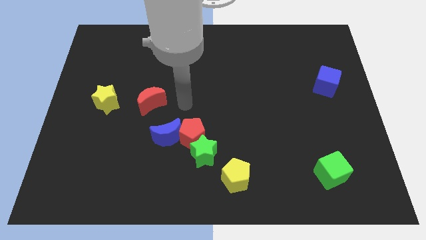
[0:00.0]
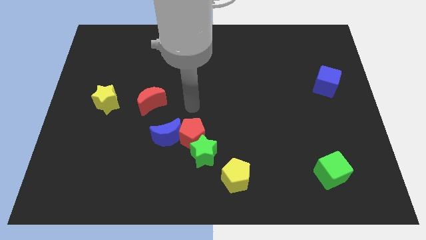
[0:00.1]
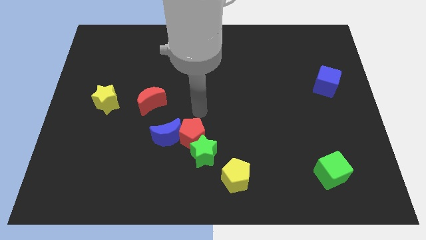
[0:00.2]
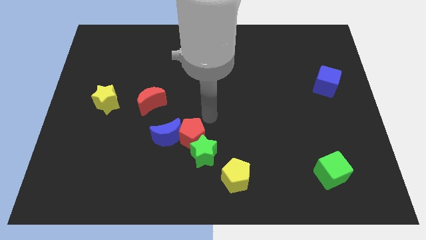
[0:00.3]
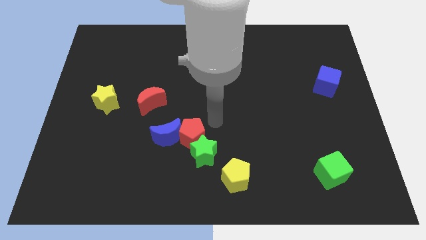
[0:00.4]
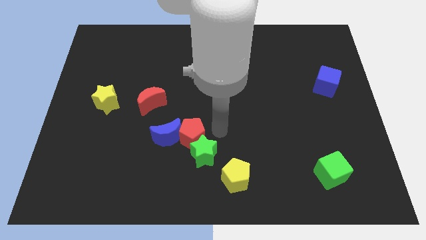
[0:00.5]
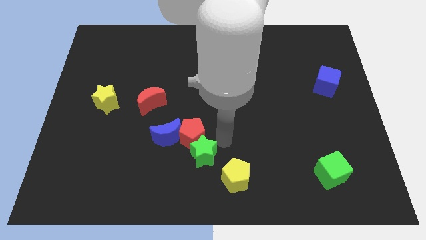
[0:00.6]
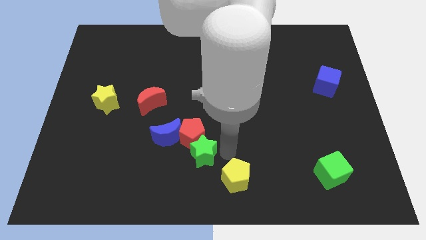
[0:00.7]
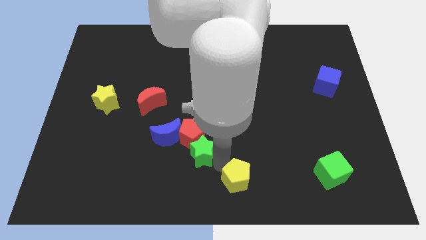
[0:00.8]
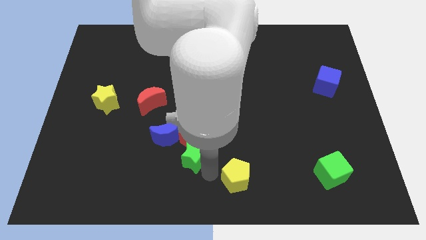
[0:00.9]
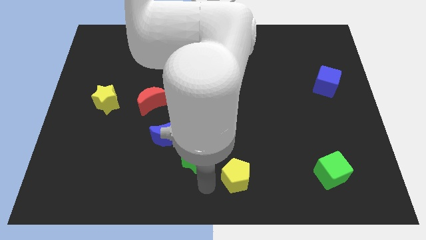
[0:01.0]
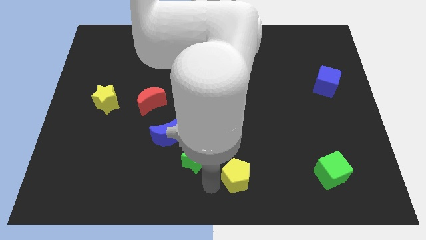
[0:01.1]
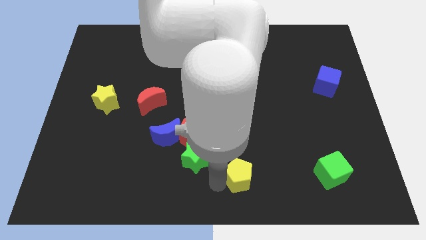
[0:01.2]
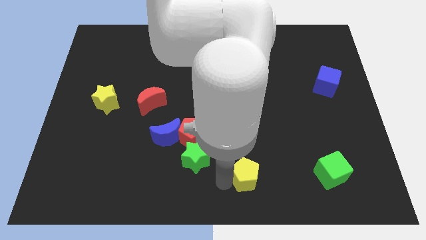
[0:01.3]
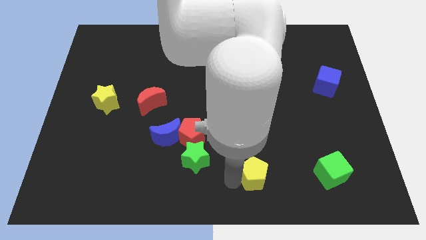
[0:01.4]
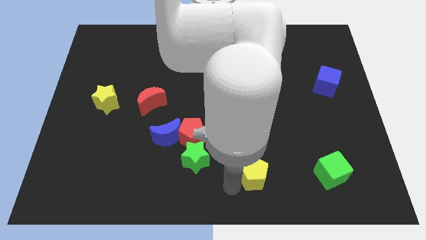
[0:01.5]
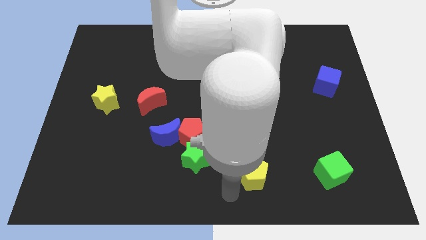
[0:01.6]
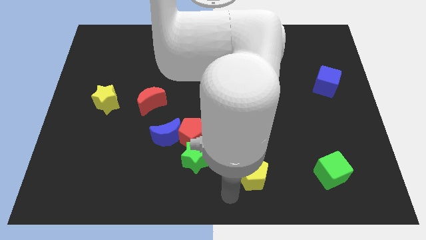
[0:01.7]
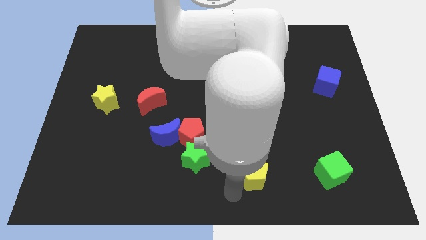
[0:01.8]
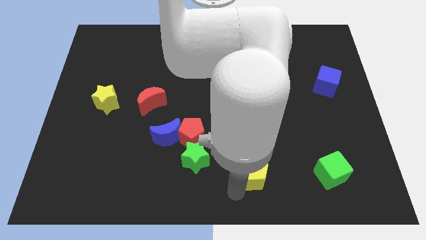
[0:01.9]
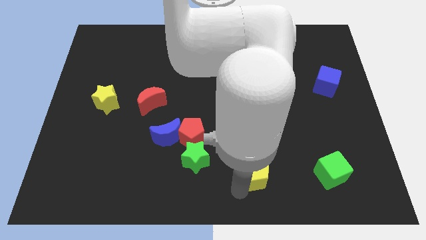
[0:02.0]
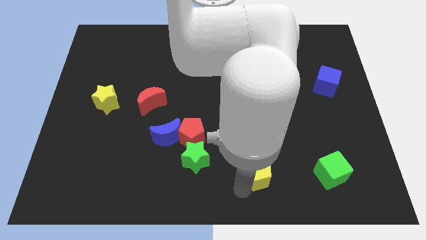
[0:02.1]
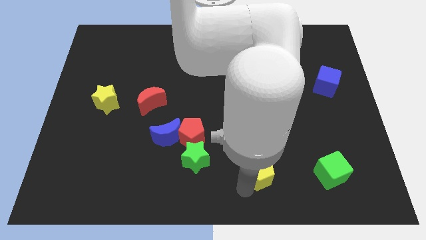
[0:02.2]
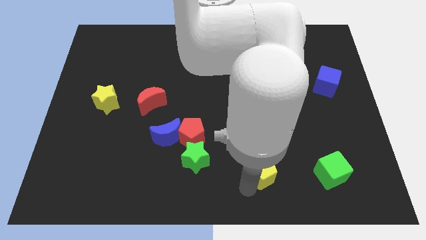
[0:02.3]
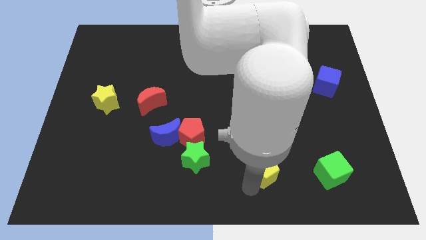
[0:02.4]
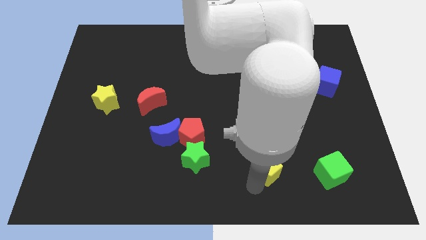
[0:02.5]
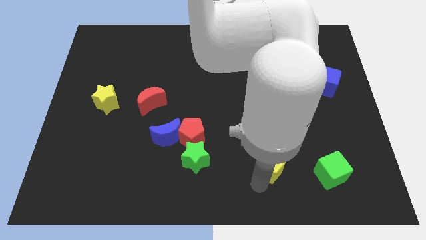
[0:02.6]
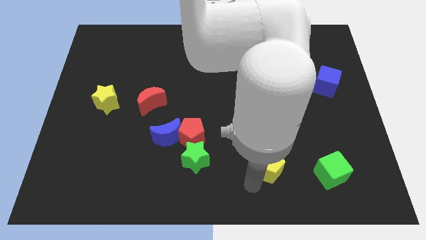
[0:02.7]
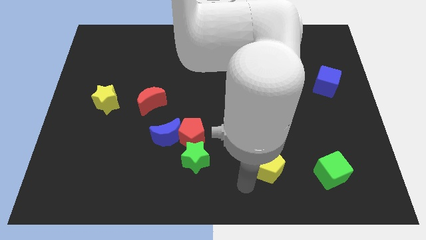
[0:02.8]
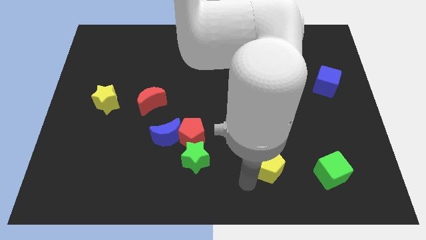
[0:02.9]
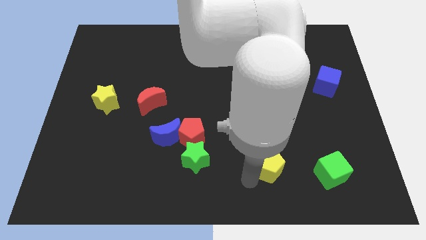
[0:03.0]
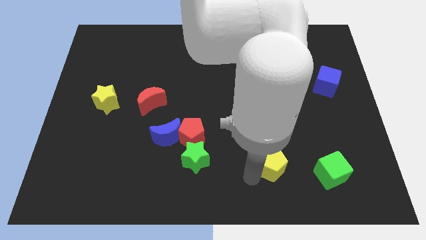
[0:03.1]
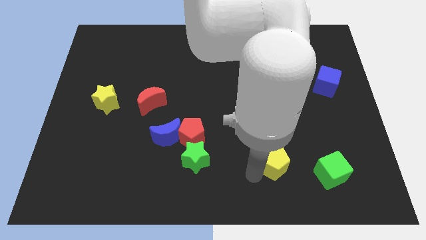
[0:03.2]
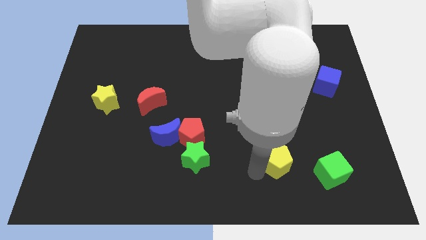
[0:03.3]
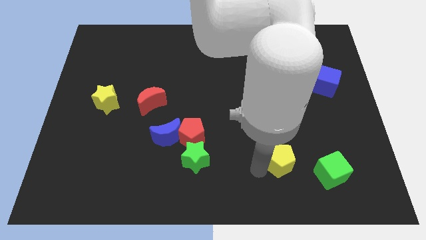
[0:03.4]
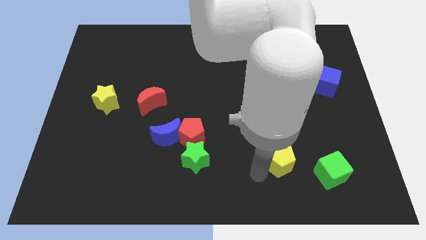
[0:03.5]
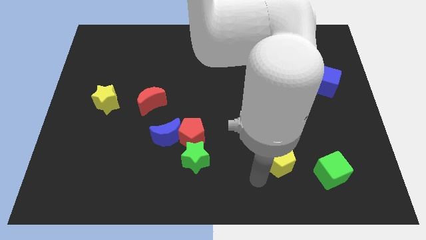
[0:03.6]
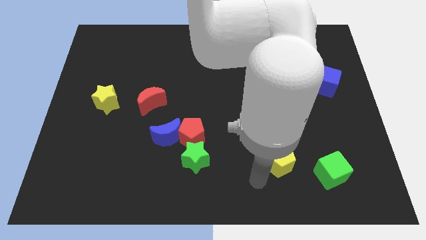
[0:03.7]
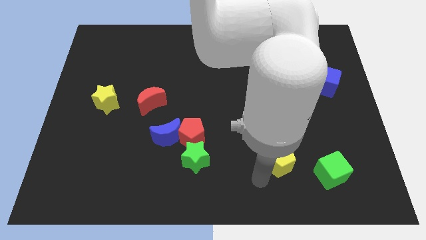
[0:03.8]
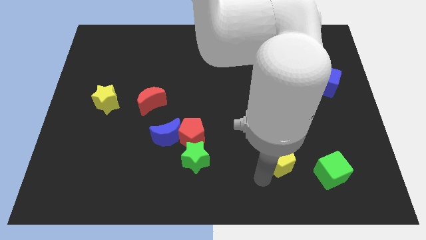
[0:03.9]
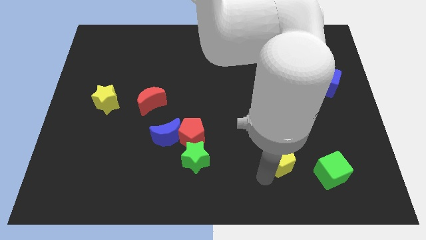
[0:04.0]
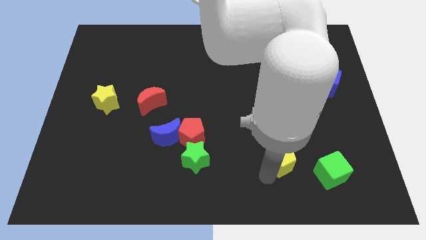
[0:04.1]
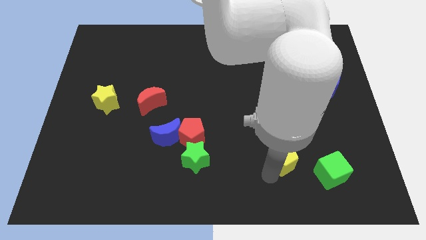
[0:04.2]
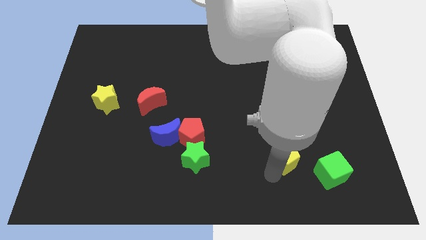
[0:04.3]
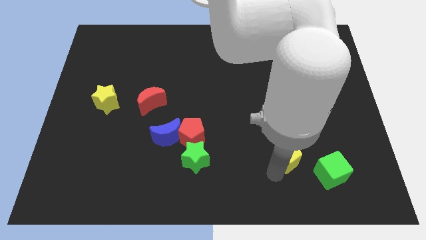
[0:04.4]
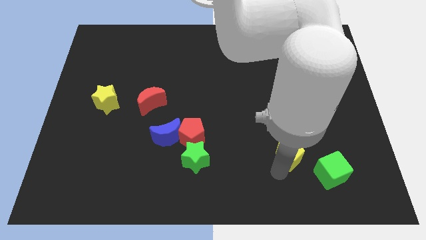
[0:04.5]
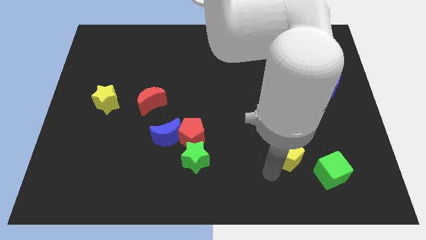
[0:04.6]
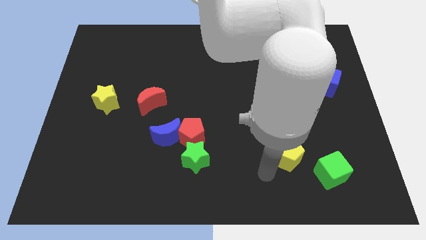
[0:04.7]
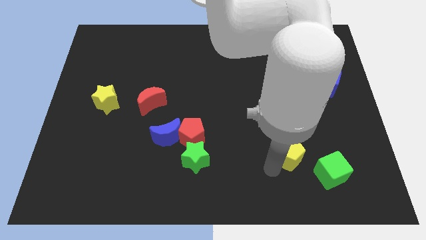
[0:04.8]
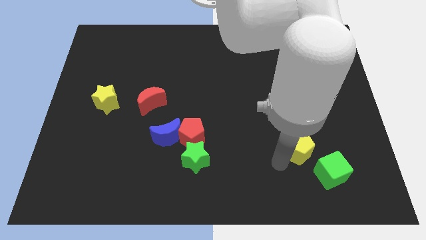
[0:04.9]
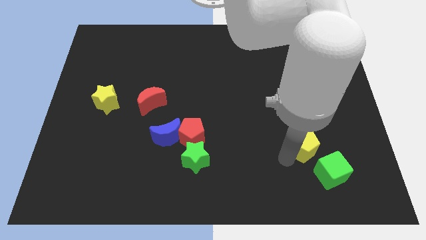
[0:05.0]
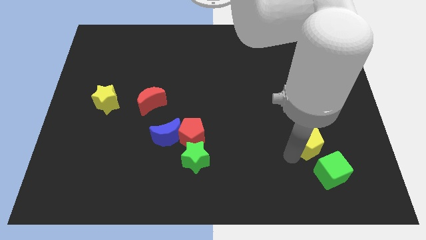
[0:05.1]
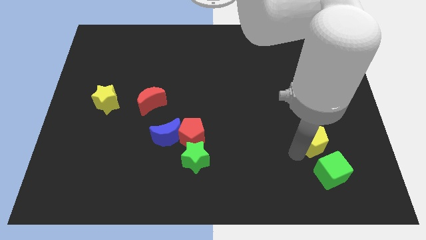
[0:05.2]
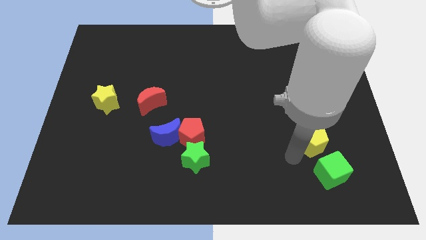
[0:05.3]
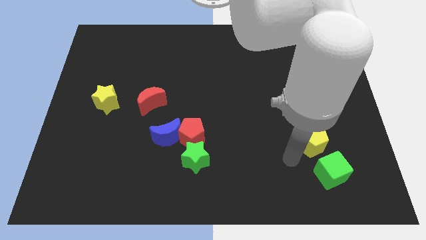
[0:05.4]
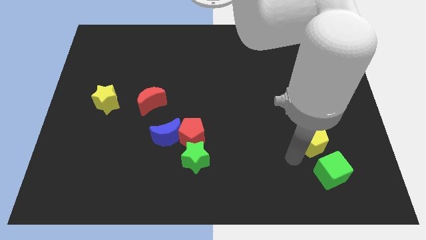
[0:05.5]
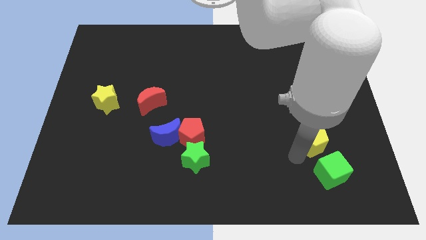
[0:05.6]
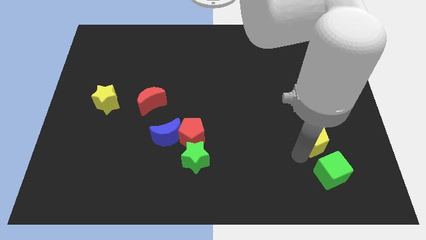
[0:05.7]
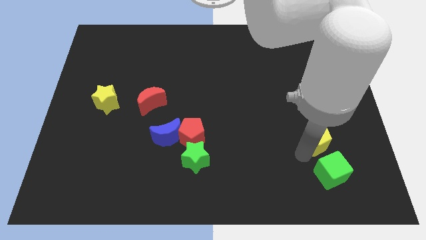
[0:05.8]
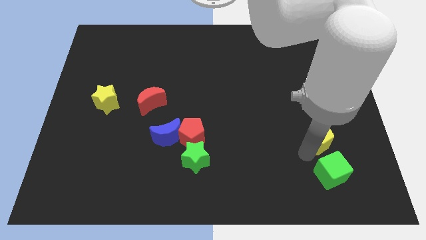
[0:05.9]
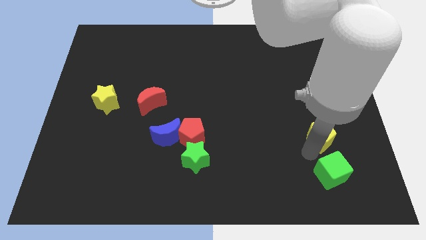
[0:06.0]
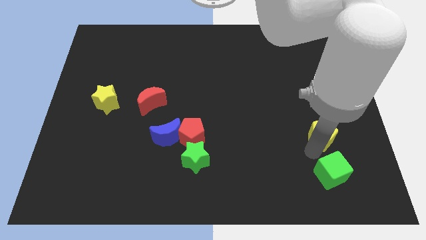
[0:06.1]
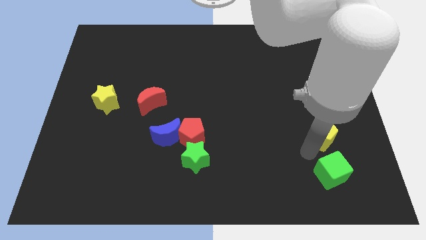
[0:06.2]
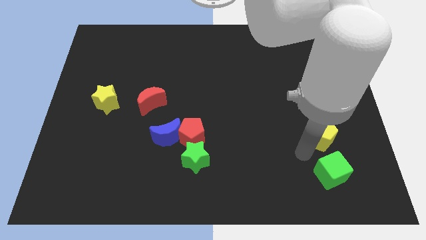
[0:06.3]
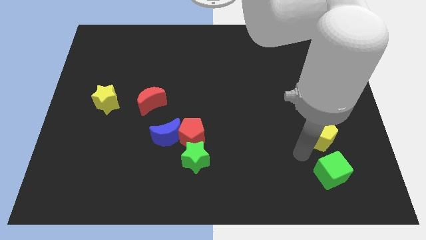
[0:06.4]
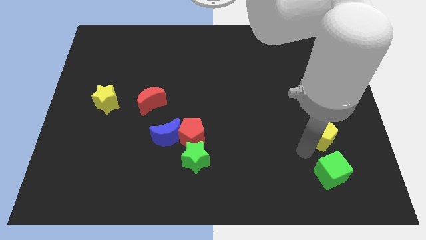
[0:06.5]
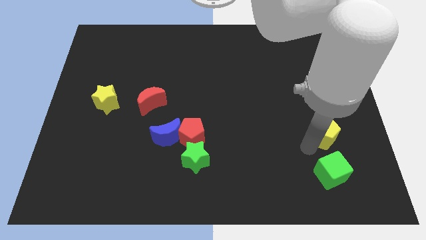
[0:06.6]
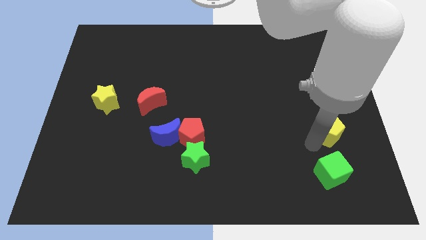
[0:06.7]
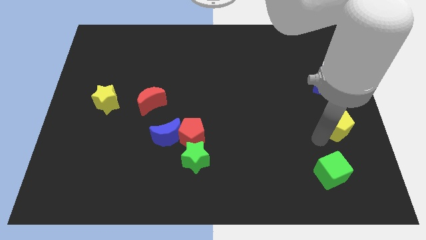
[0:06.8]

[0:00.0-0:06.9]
push the yellow pentagon to the right side of the board
